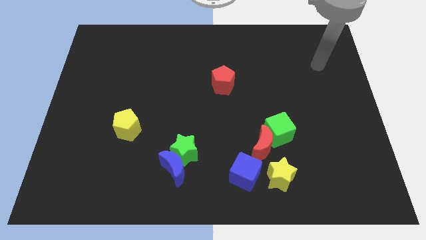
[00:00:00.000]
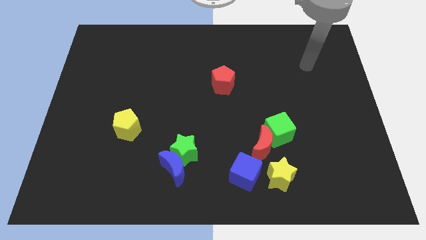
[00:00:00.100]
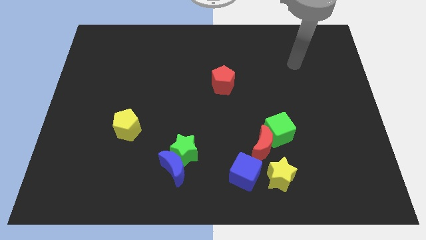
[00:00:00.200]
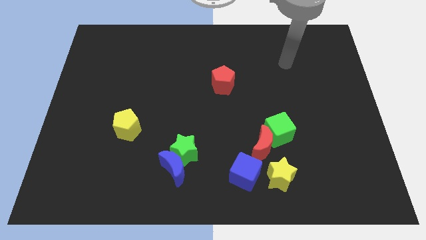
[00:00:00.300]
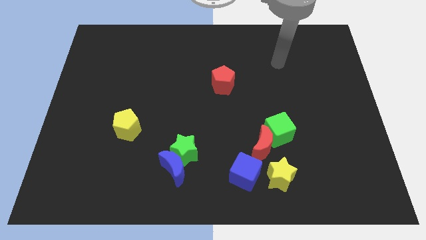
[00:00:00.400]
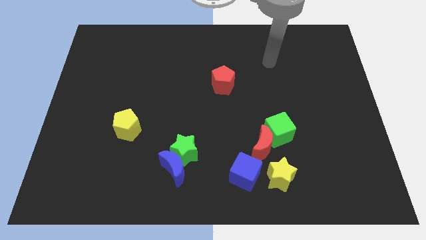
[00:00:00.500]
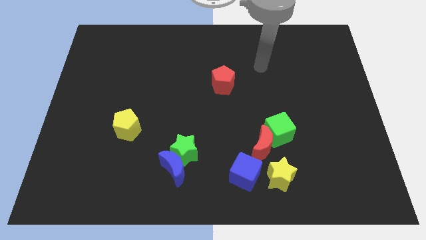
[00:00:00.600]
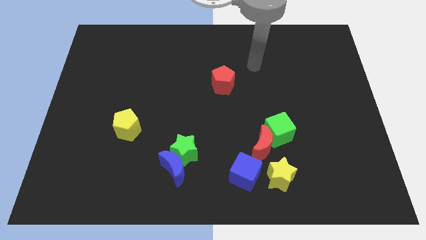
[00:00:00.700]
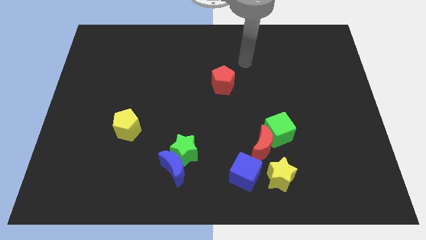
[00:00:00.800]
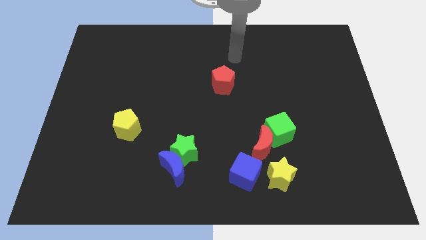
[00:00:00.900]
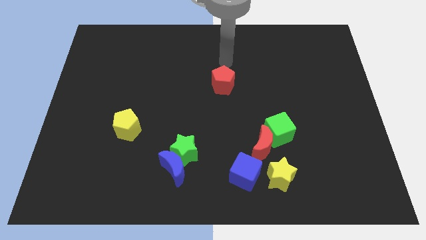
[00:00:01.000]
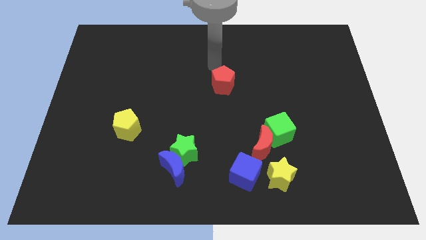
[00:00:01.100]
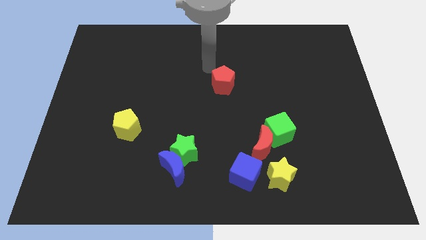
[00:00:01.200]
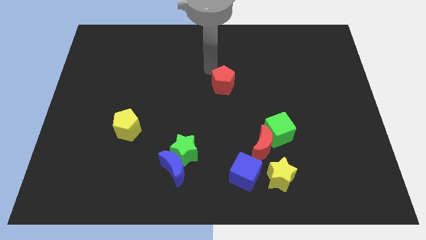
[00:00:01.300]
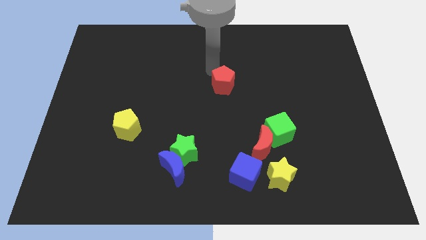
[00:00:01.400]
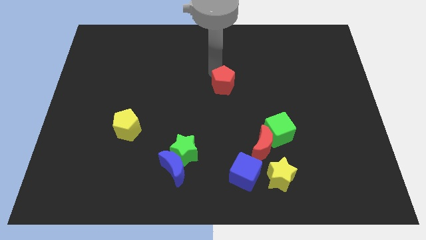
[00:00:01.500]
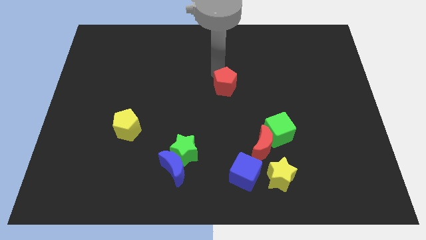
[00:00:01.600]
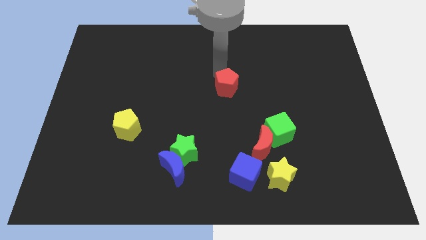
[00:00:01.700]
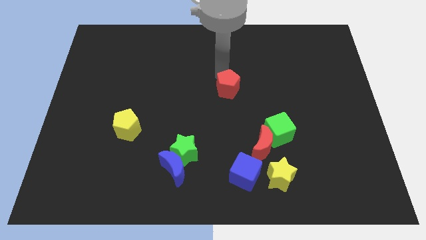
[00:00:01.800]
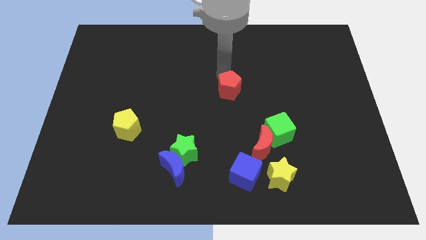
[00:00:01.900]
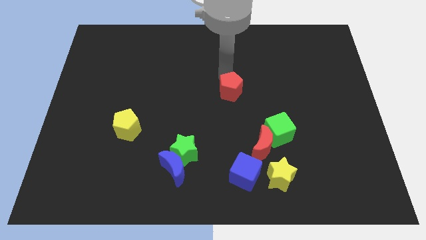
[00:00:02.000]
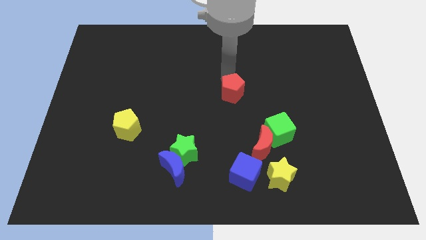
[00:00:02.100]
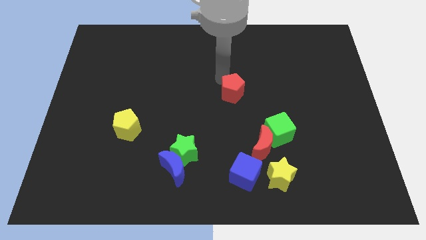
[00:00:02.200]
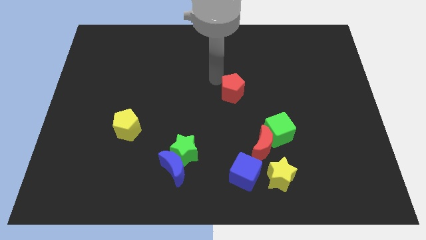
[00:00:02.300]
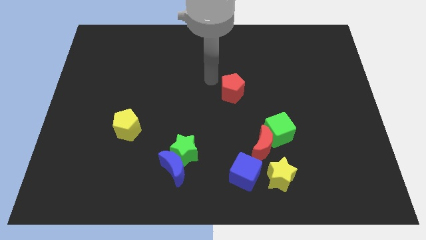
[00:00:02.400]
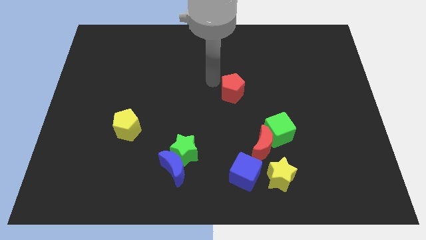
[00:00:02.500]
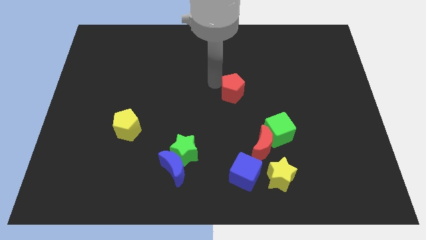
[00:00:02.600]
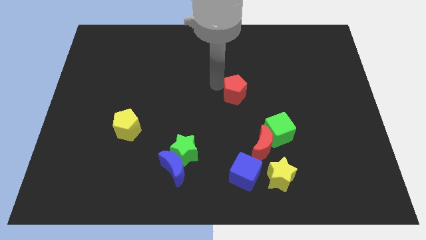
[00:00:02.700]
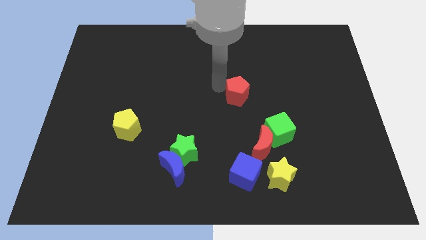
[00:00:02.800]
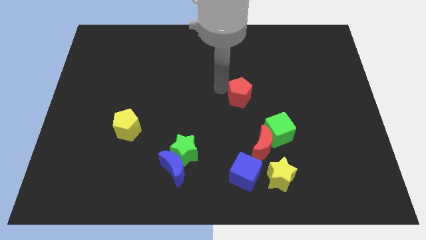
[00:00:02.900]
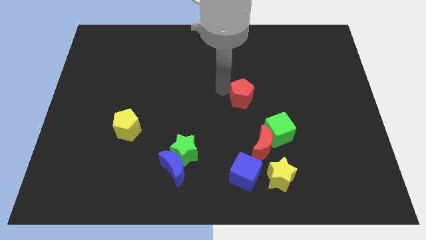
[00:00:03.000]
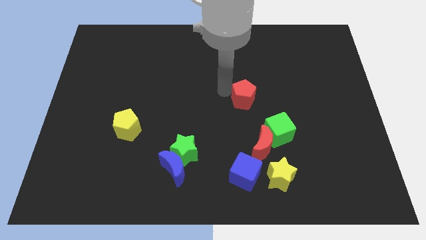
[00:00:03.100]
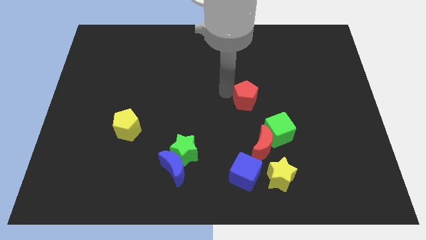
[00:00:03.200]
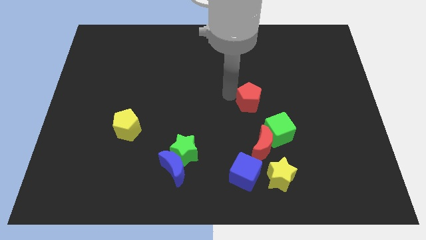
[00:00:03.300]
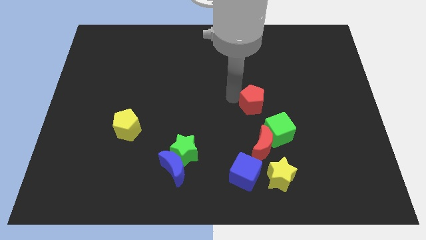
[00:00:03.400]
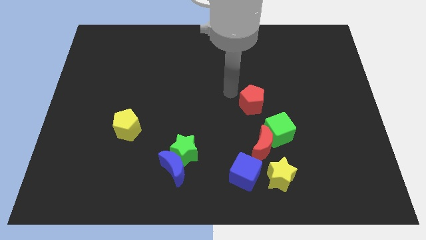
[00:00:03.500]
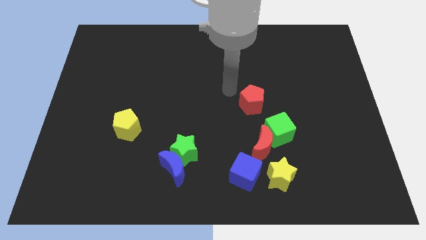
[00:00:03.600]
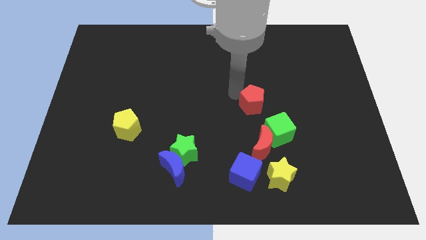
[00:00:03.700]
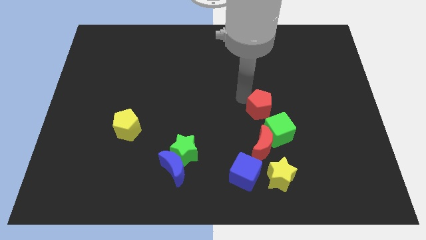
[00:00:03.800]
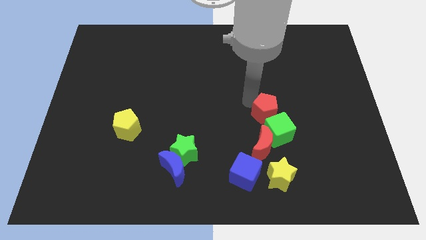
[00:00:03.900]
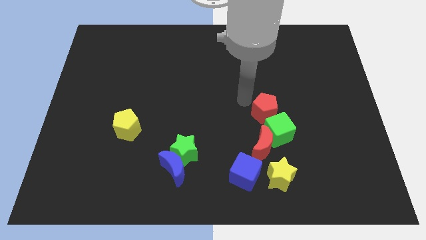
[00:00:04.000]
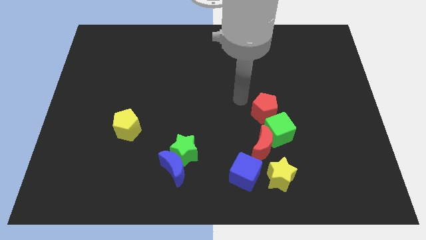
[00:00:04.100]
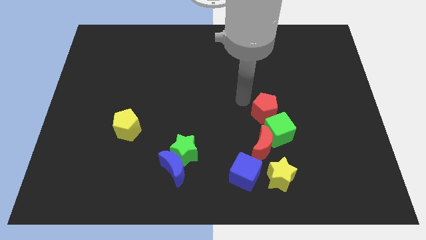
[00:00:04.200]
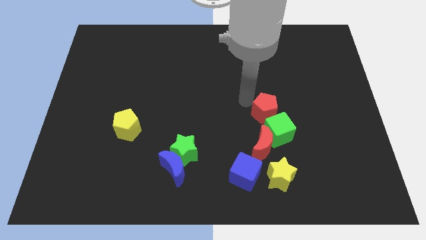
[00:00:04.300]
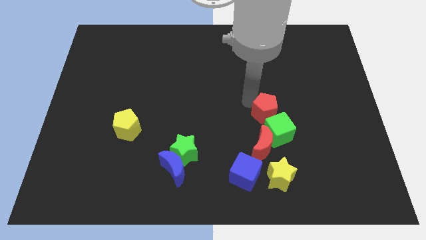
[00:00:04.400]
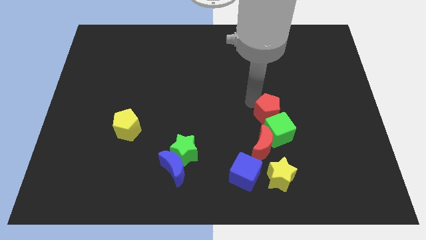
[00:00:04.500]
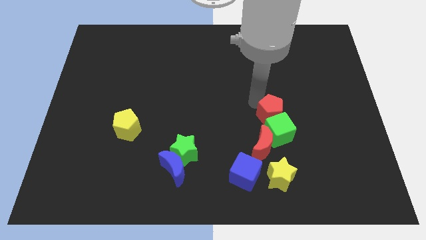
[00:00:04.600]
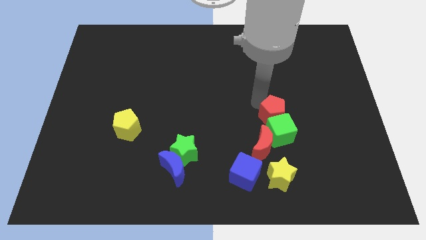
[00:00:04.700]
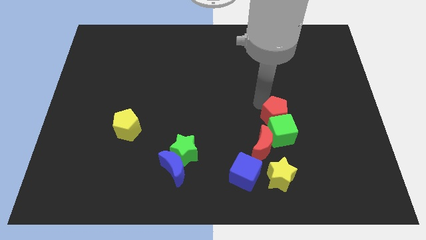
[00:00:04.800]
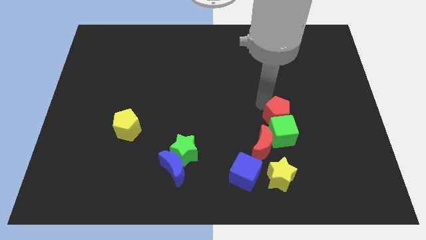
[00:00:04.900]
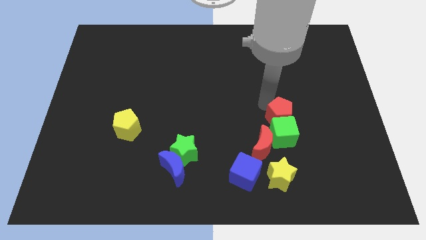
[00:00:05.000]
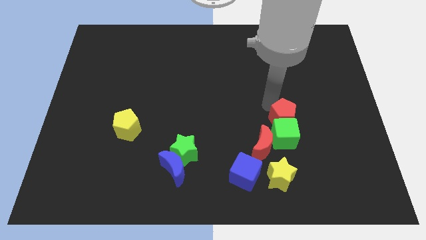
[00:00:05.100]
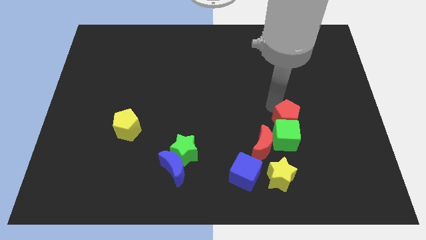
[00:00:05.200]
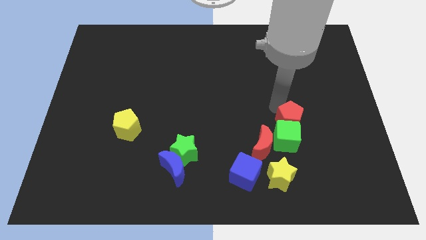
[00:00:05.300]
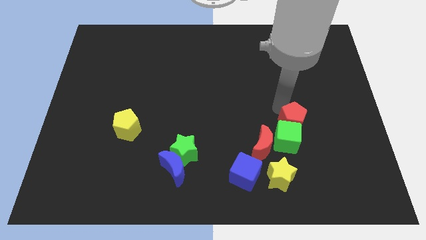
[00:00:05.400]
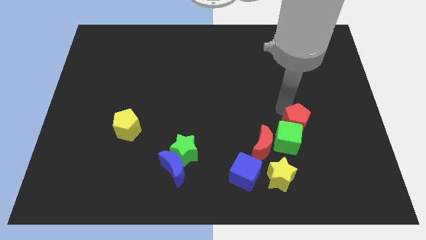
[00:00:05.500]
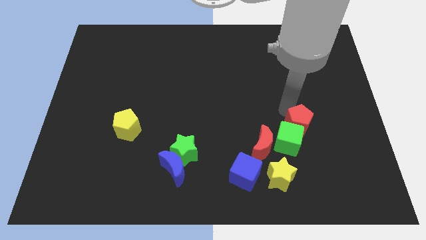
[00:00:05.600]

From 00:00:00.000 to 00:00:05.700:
push the red pentagon down and to the right

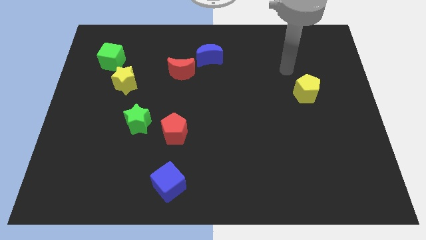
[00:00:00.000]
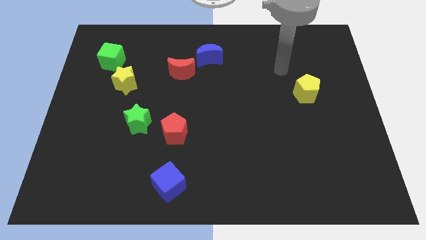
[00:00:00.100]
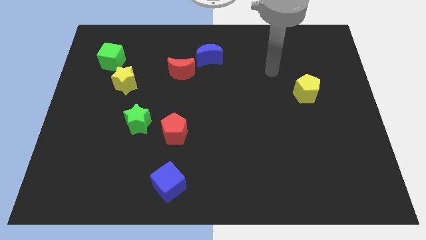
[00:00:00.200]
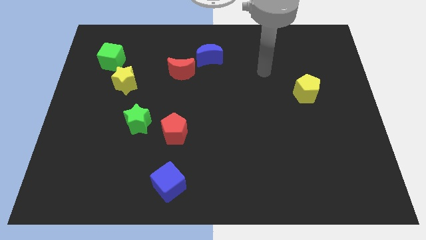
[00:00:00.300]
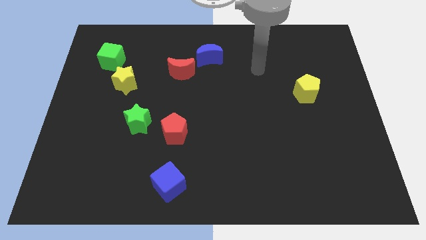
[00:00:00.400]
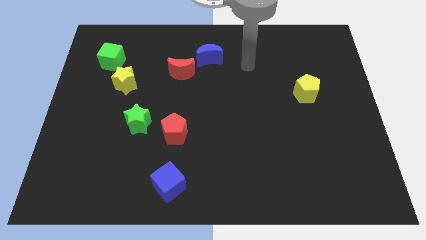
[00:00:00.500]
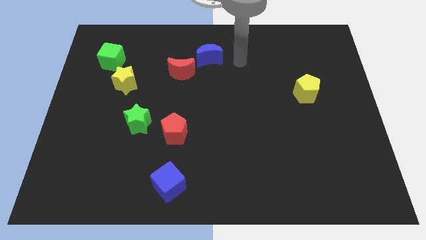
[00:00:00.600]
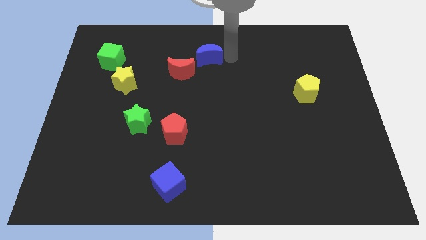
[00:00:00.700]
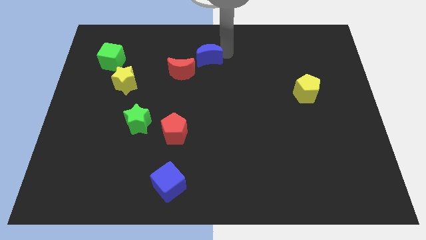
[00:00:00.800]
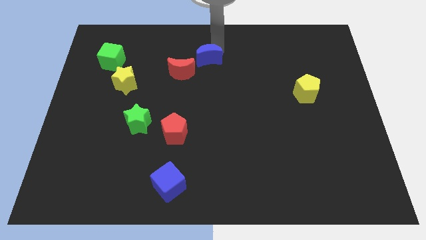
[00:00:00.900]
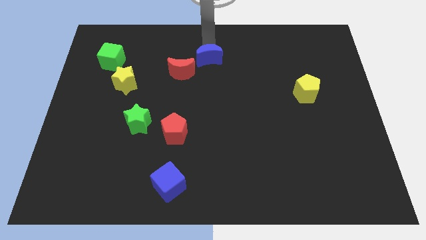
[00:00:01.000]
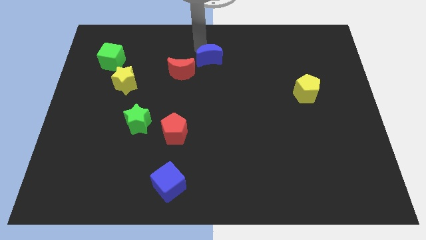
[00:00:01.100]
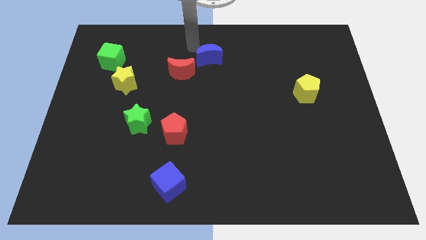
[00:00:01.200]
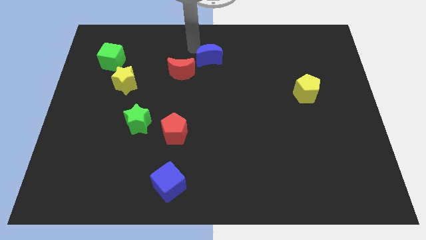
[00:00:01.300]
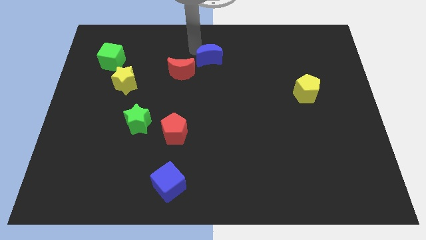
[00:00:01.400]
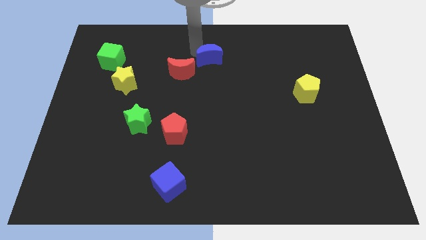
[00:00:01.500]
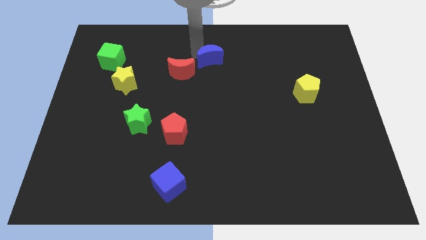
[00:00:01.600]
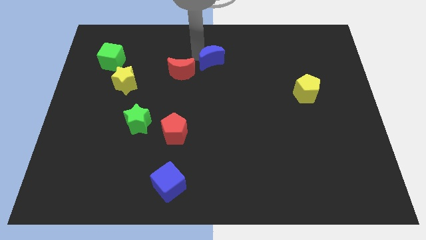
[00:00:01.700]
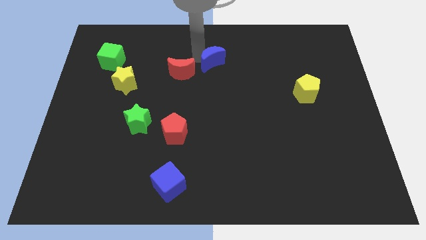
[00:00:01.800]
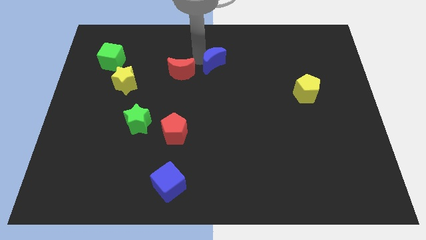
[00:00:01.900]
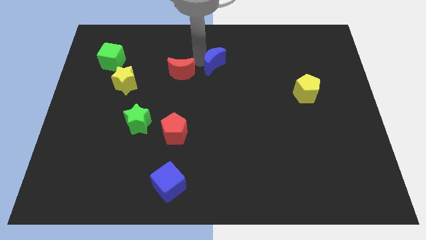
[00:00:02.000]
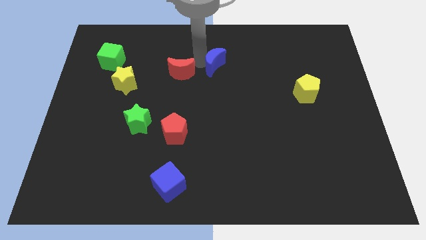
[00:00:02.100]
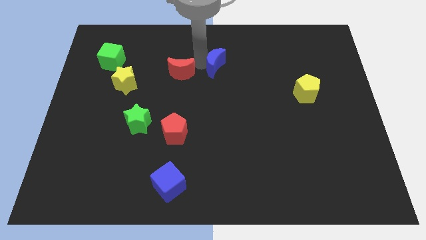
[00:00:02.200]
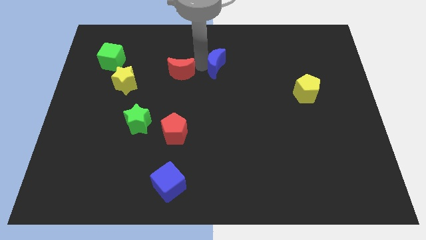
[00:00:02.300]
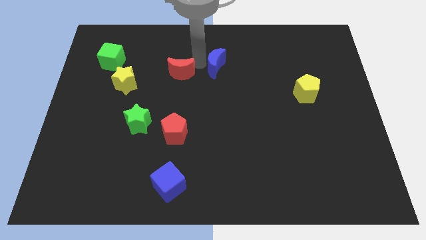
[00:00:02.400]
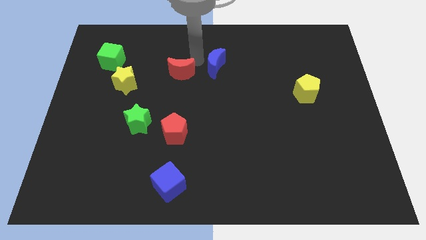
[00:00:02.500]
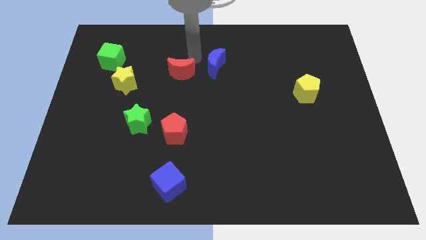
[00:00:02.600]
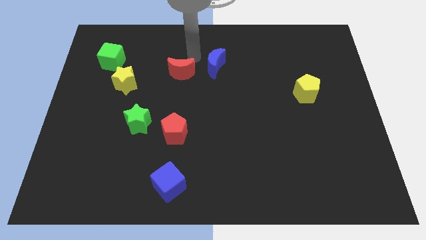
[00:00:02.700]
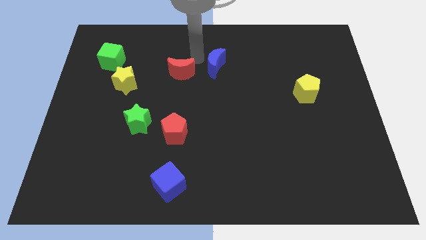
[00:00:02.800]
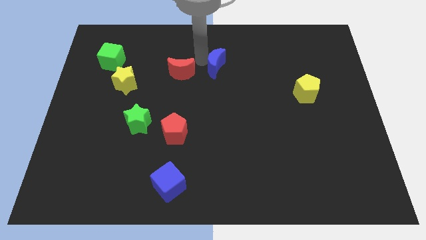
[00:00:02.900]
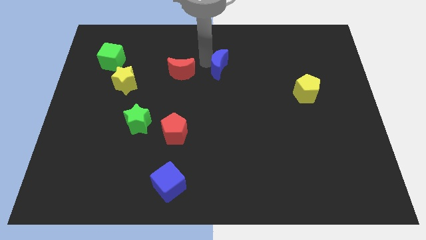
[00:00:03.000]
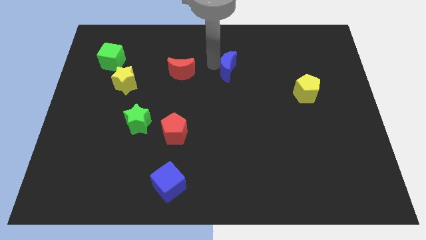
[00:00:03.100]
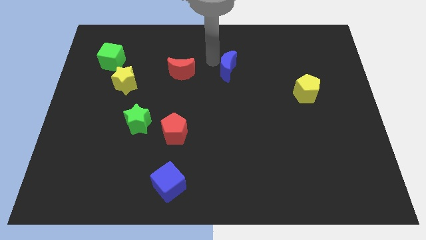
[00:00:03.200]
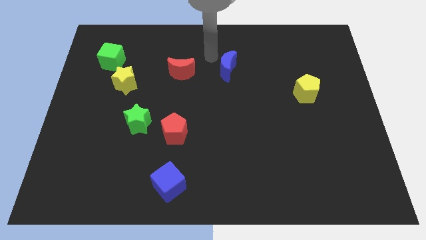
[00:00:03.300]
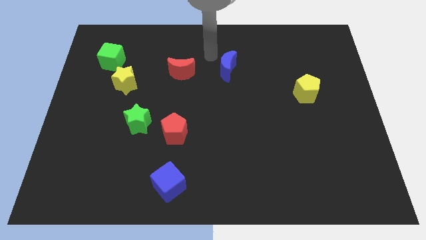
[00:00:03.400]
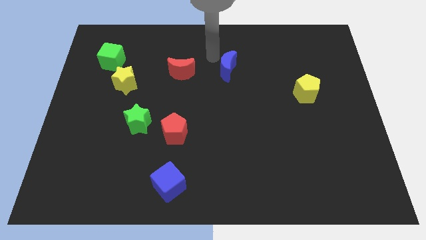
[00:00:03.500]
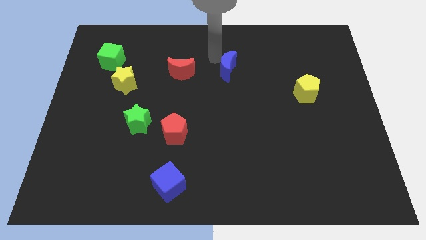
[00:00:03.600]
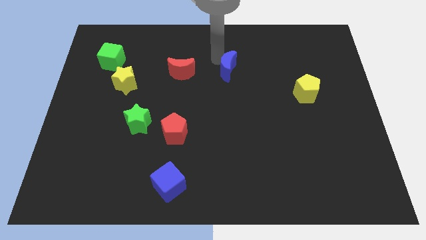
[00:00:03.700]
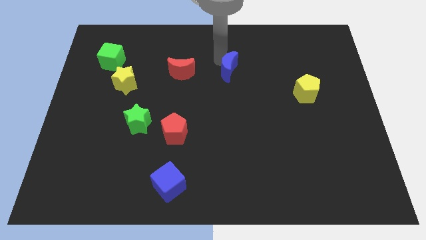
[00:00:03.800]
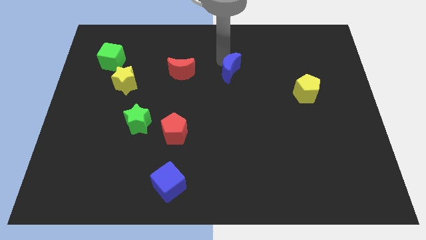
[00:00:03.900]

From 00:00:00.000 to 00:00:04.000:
slightly move the blue moon downwards and then to the right
